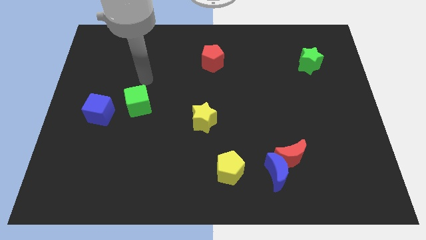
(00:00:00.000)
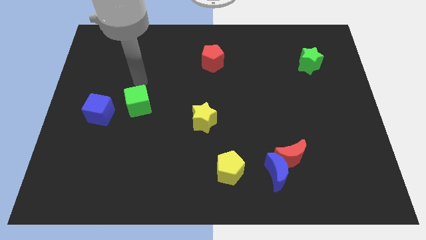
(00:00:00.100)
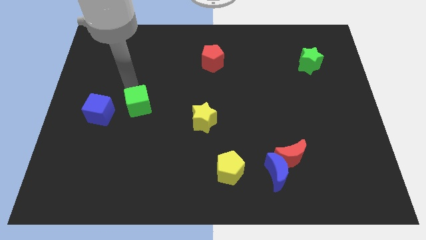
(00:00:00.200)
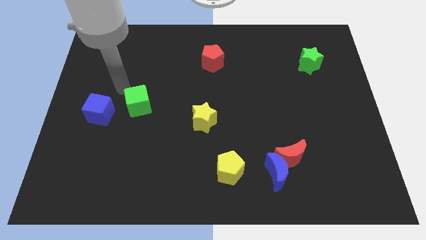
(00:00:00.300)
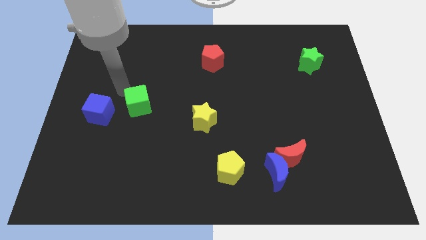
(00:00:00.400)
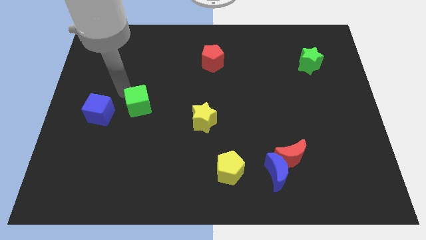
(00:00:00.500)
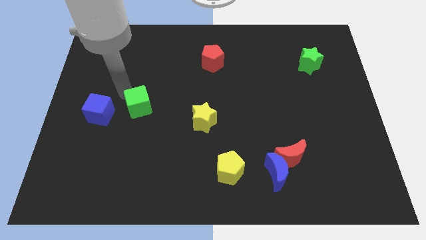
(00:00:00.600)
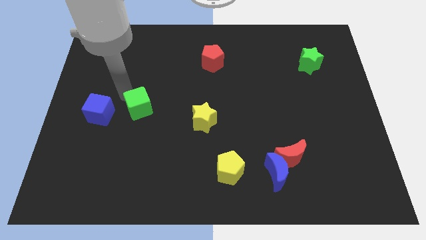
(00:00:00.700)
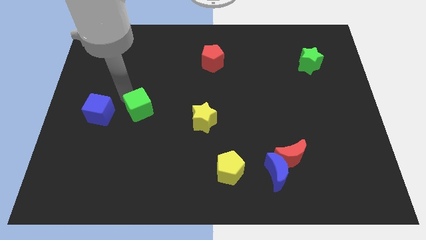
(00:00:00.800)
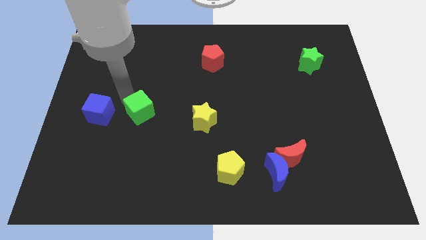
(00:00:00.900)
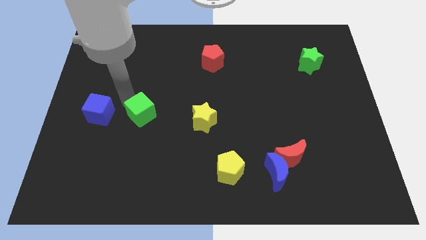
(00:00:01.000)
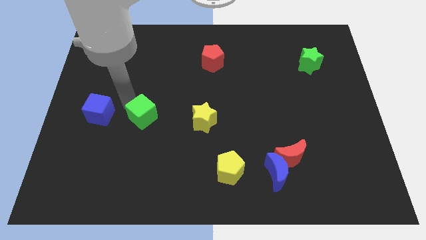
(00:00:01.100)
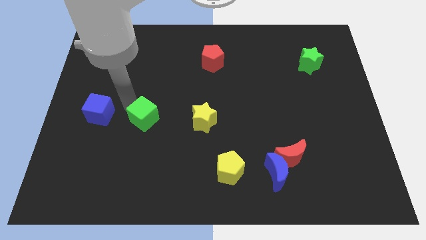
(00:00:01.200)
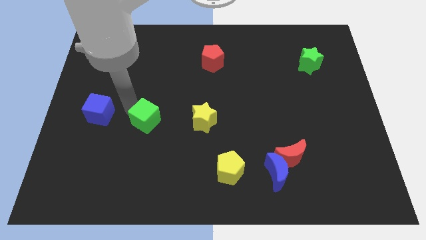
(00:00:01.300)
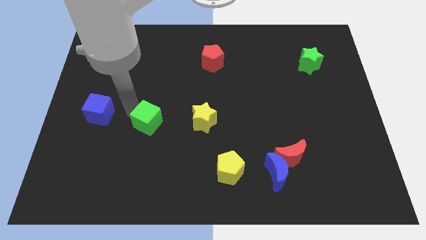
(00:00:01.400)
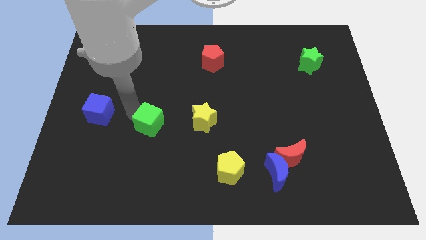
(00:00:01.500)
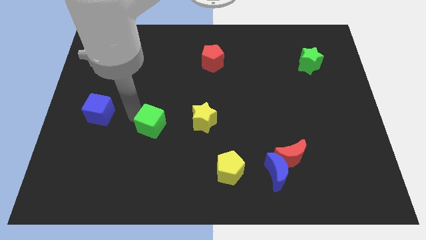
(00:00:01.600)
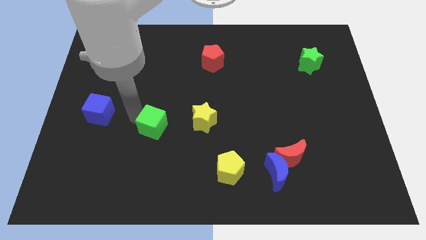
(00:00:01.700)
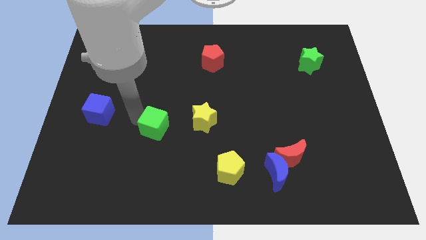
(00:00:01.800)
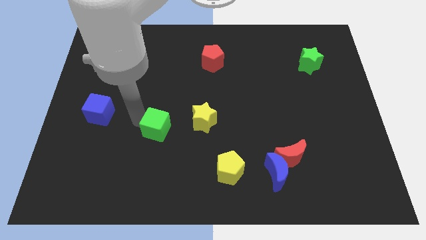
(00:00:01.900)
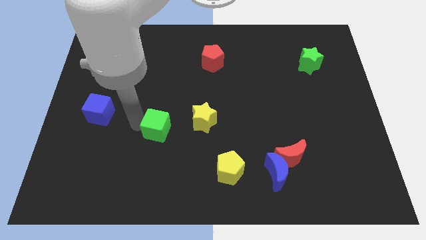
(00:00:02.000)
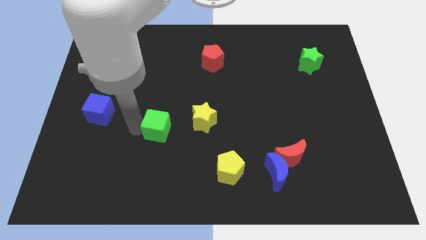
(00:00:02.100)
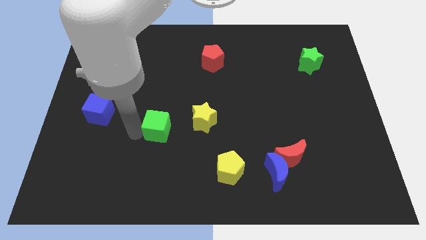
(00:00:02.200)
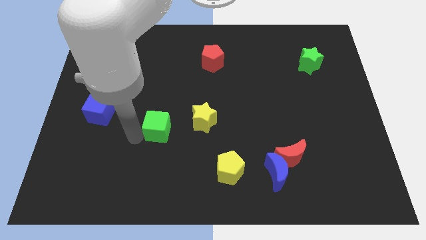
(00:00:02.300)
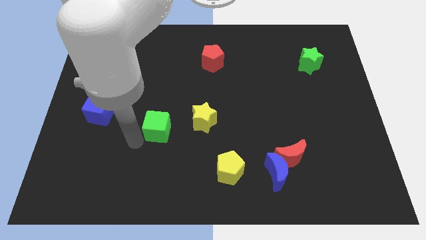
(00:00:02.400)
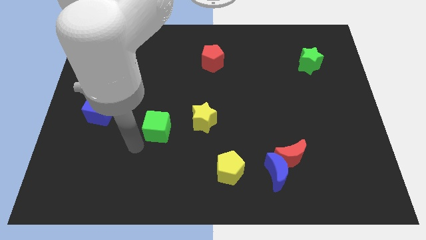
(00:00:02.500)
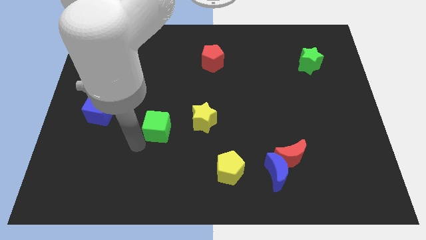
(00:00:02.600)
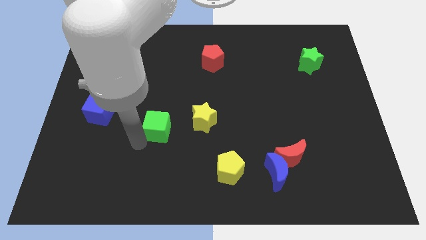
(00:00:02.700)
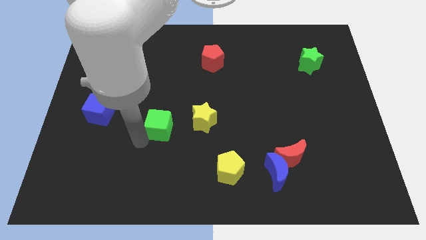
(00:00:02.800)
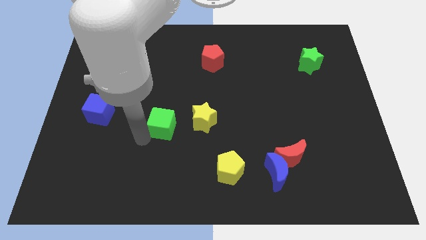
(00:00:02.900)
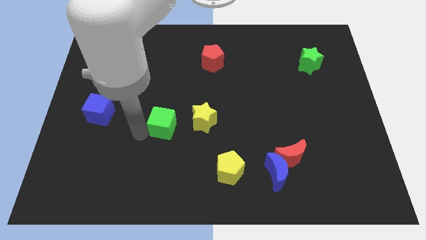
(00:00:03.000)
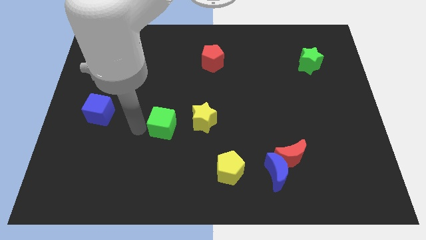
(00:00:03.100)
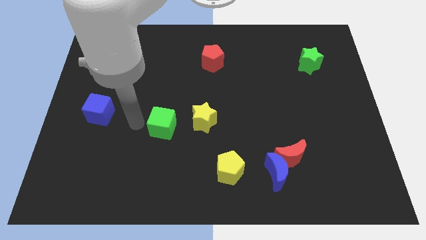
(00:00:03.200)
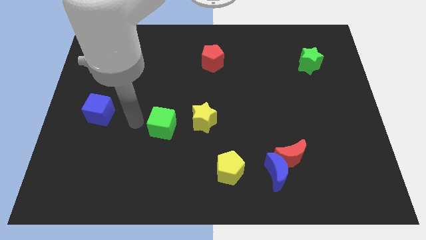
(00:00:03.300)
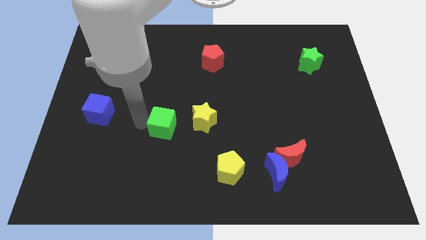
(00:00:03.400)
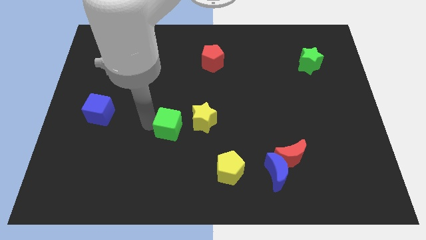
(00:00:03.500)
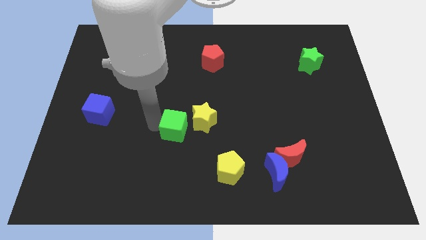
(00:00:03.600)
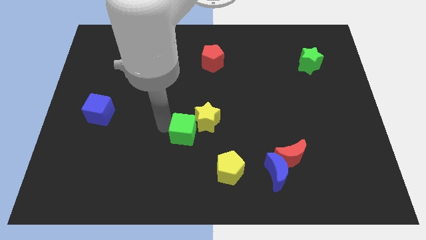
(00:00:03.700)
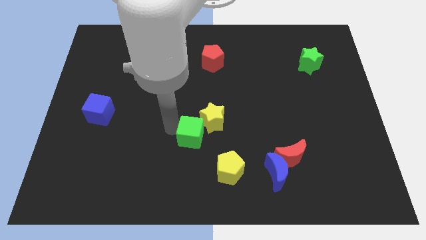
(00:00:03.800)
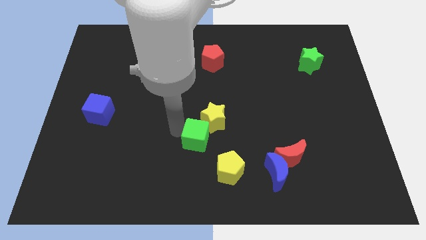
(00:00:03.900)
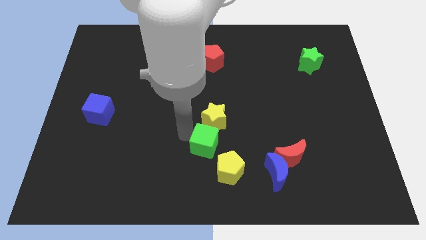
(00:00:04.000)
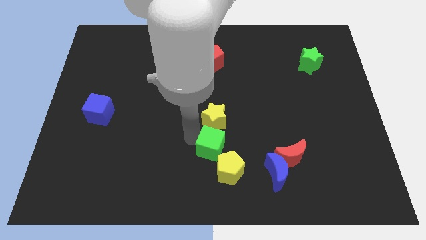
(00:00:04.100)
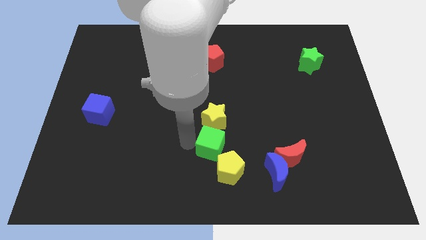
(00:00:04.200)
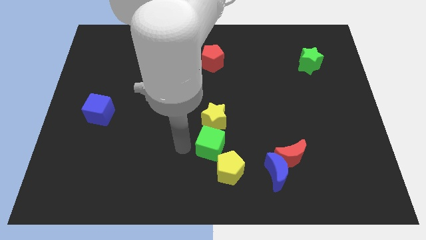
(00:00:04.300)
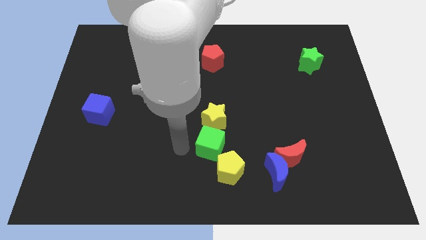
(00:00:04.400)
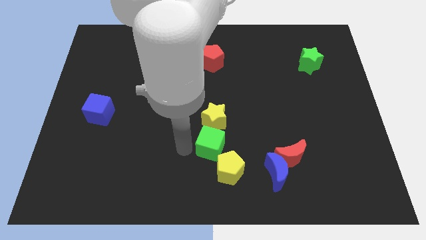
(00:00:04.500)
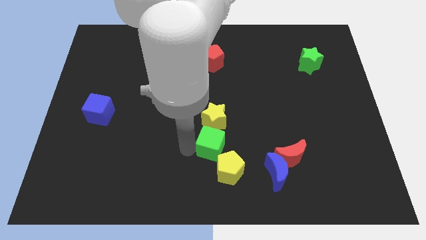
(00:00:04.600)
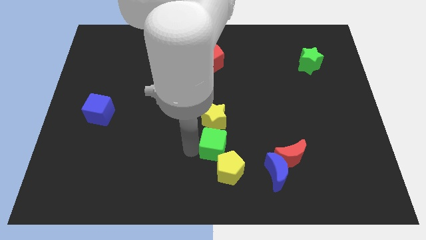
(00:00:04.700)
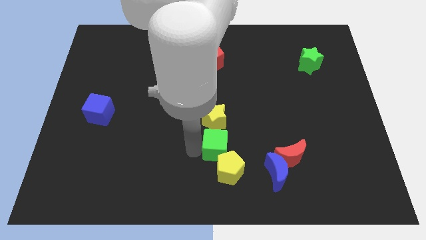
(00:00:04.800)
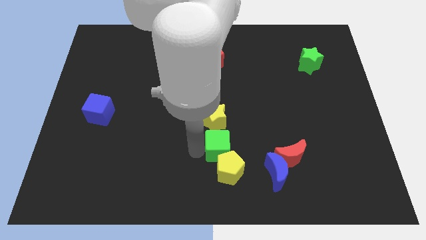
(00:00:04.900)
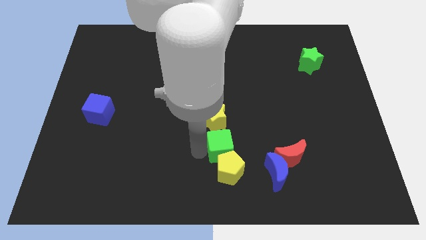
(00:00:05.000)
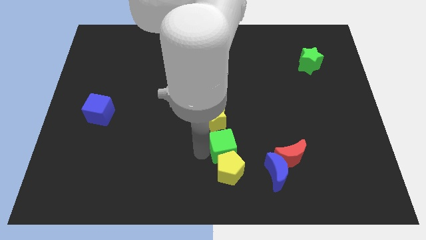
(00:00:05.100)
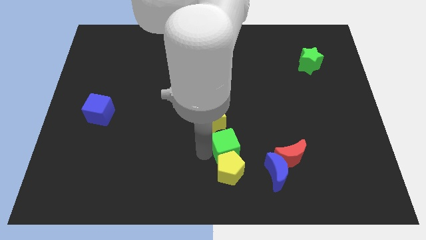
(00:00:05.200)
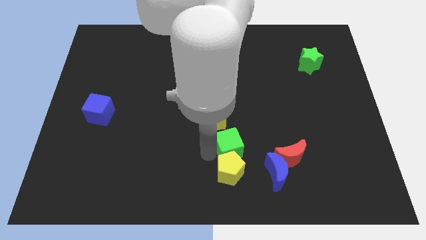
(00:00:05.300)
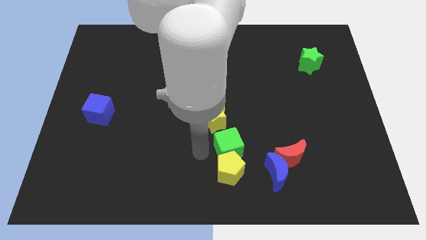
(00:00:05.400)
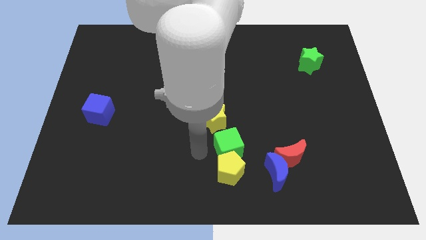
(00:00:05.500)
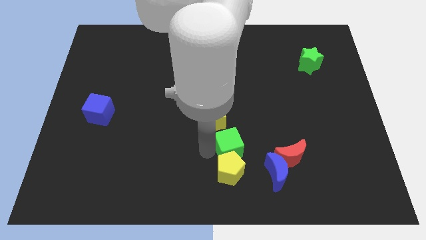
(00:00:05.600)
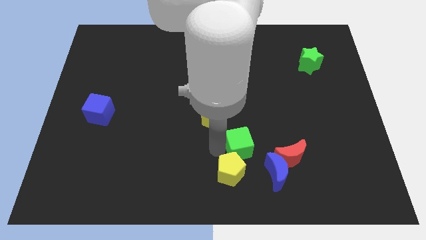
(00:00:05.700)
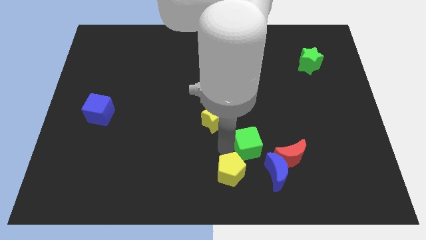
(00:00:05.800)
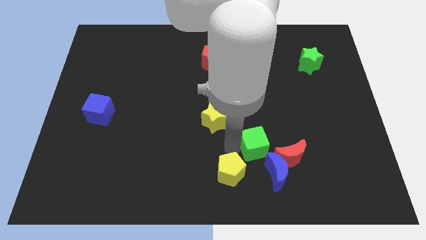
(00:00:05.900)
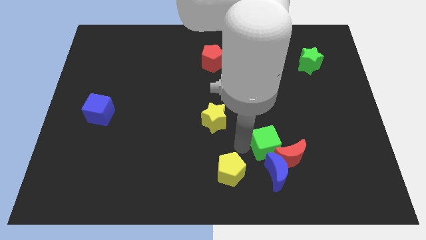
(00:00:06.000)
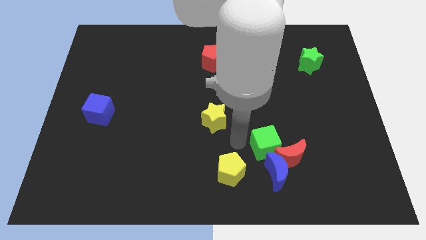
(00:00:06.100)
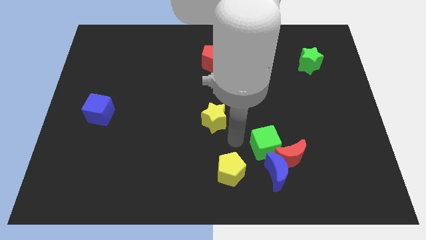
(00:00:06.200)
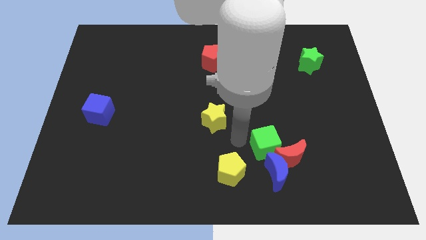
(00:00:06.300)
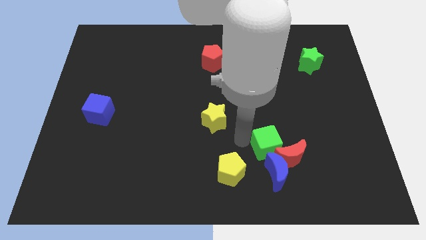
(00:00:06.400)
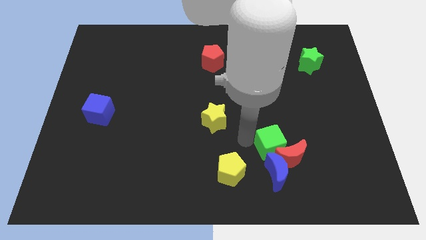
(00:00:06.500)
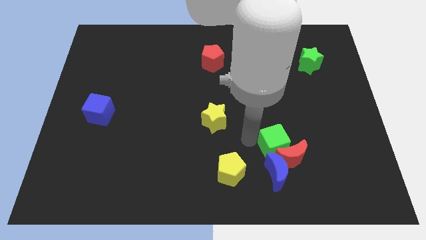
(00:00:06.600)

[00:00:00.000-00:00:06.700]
move the green cube diagonally up and to the right of the blue moon

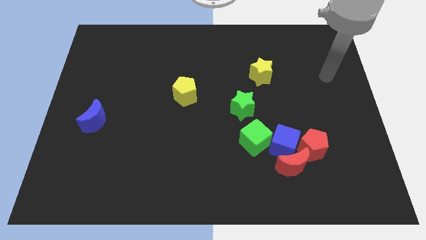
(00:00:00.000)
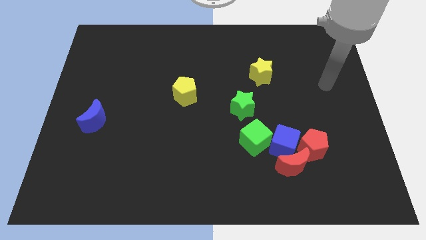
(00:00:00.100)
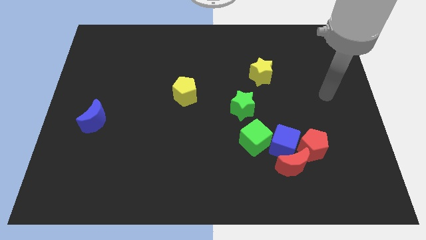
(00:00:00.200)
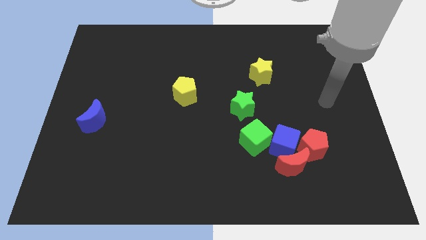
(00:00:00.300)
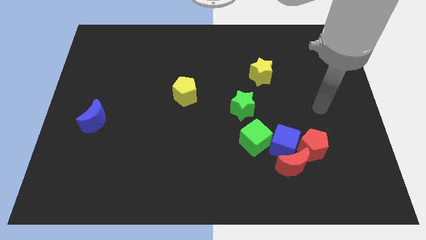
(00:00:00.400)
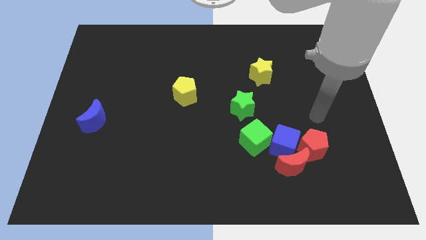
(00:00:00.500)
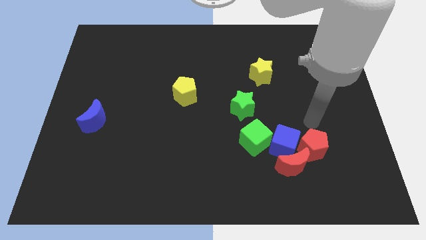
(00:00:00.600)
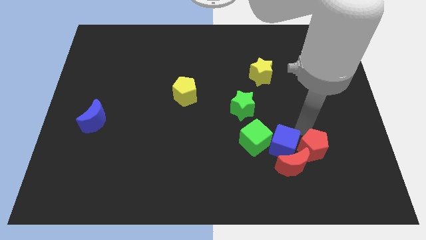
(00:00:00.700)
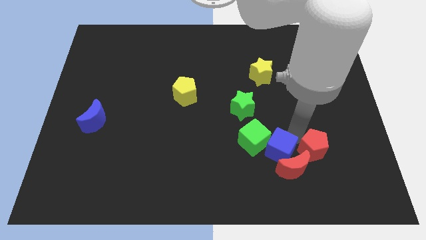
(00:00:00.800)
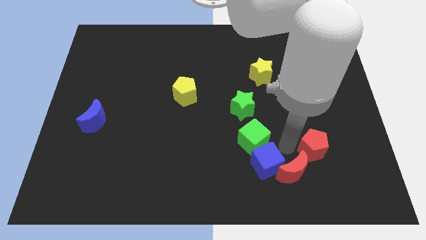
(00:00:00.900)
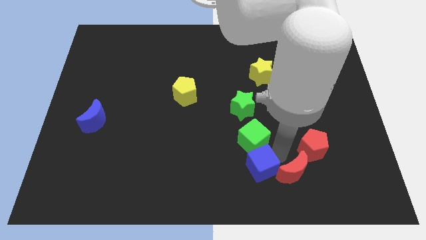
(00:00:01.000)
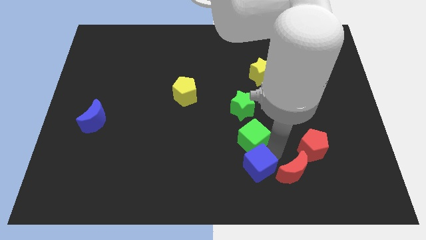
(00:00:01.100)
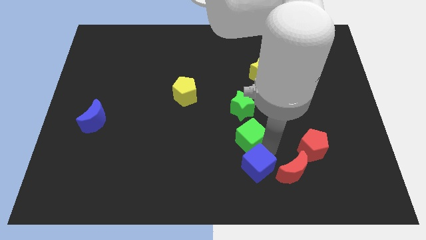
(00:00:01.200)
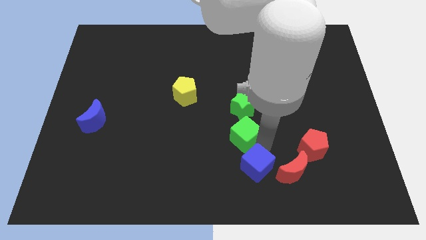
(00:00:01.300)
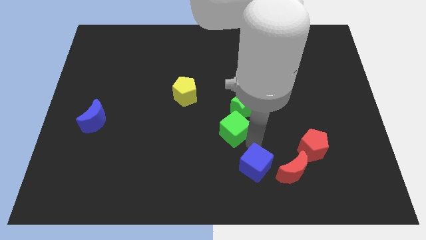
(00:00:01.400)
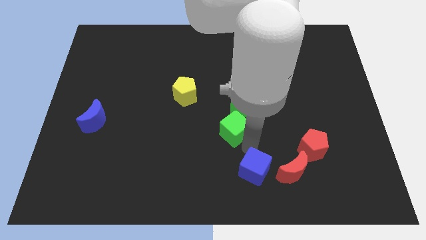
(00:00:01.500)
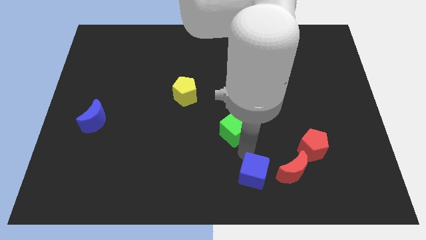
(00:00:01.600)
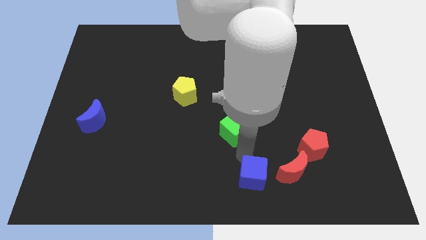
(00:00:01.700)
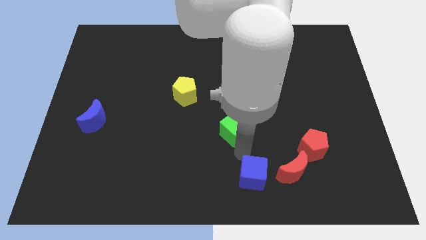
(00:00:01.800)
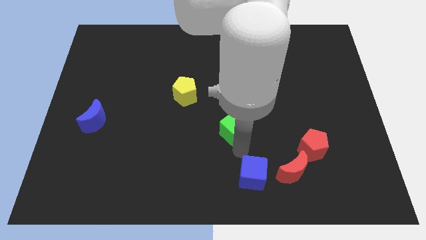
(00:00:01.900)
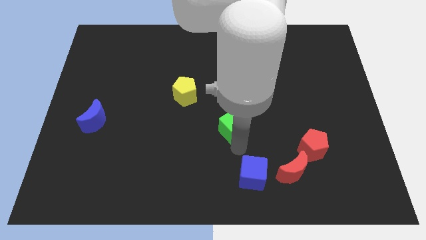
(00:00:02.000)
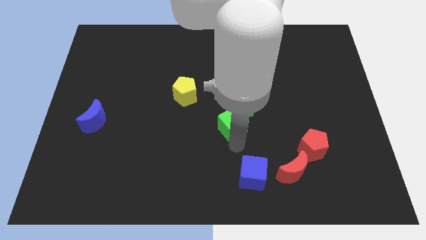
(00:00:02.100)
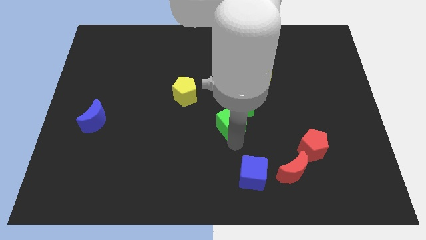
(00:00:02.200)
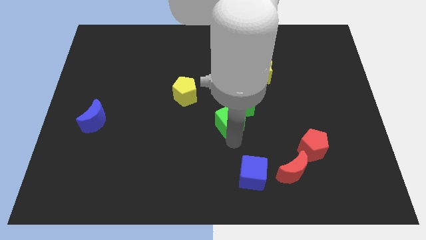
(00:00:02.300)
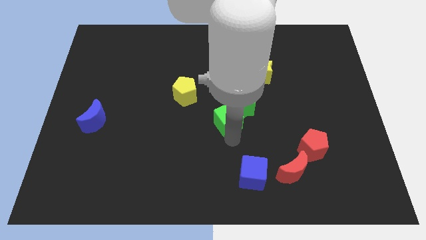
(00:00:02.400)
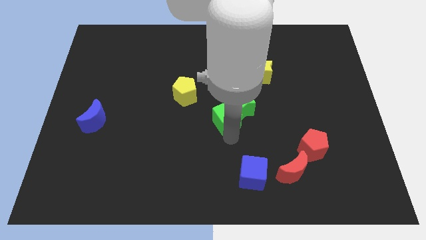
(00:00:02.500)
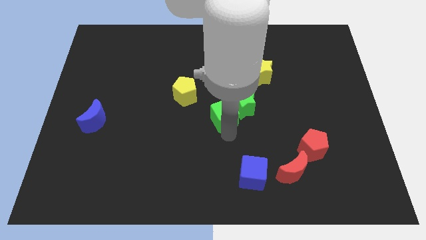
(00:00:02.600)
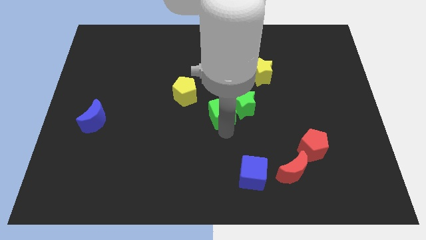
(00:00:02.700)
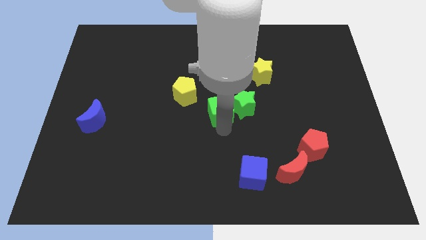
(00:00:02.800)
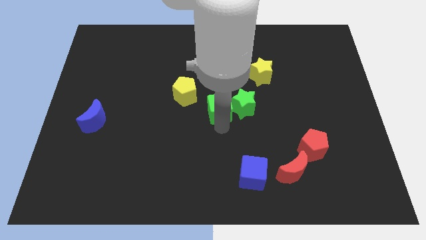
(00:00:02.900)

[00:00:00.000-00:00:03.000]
push the green cube to the top left of the green star
